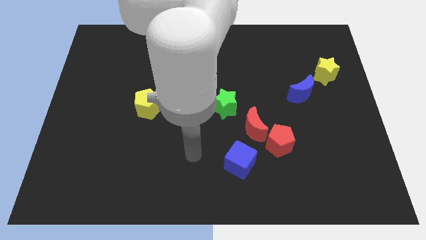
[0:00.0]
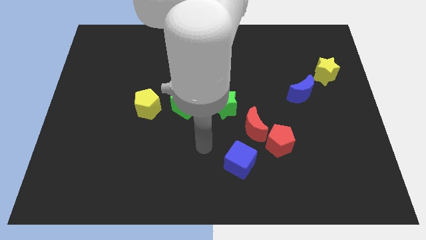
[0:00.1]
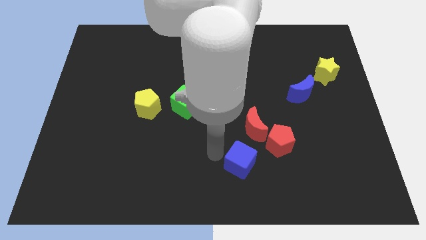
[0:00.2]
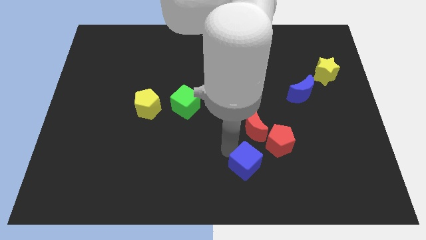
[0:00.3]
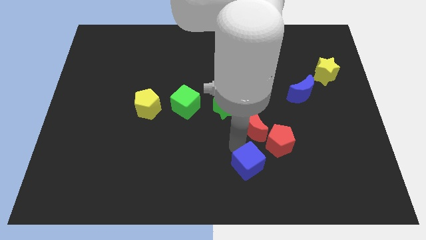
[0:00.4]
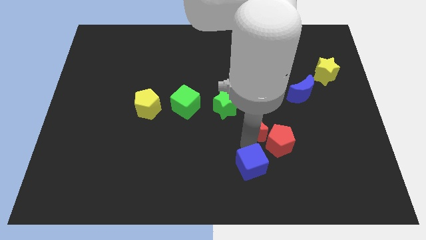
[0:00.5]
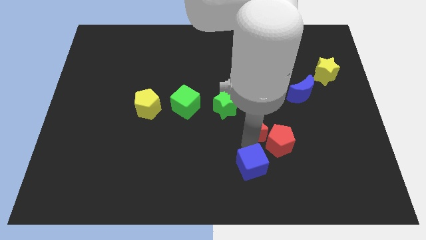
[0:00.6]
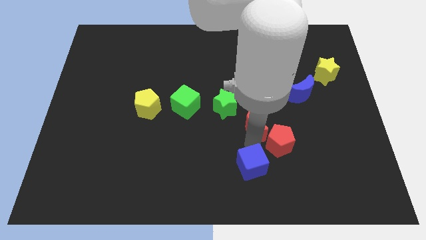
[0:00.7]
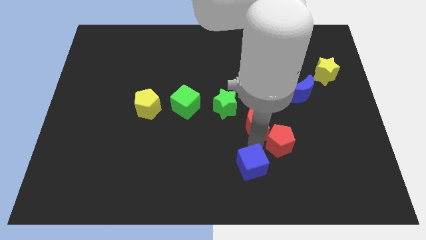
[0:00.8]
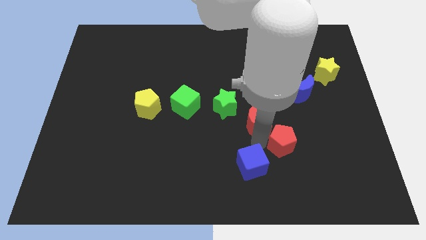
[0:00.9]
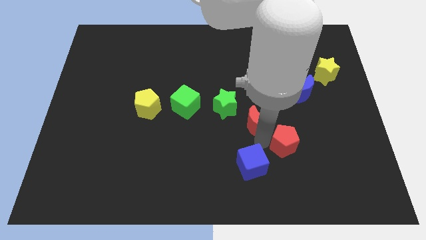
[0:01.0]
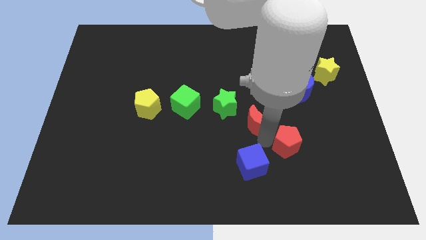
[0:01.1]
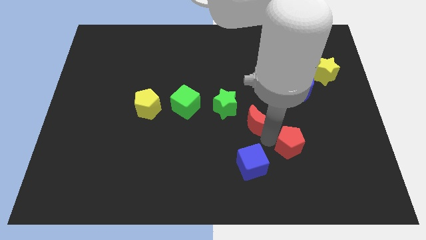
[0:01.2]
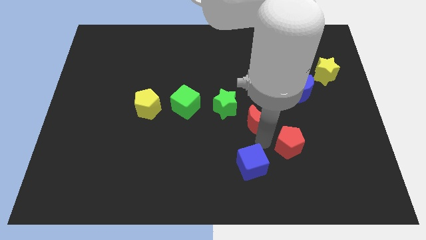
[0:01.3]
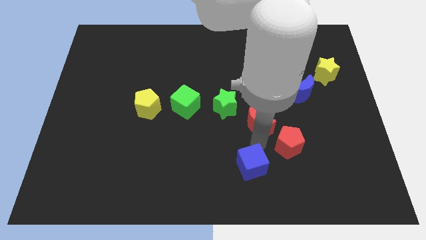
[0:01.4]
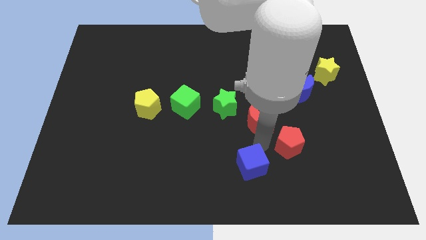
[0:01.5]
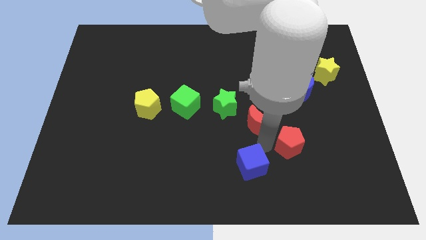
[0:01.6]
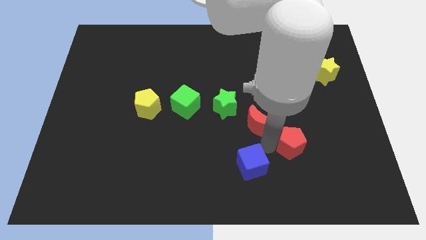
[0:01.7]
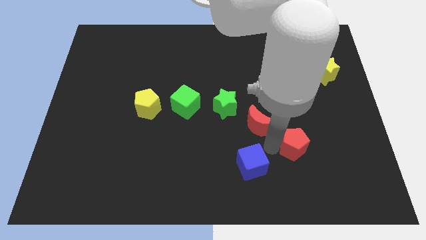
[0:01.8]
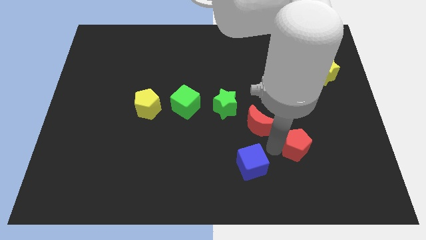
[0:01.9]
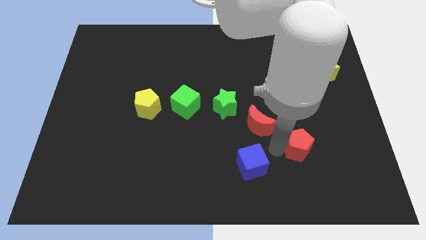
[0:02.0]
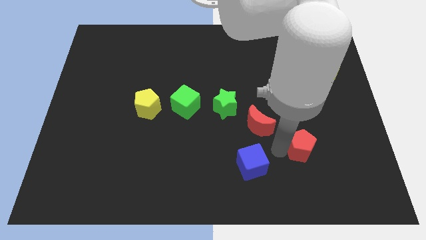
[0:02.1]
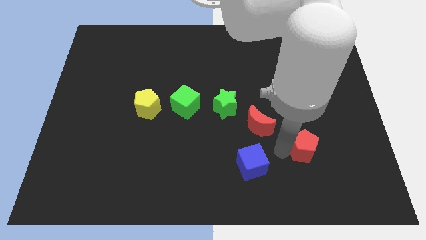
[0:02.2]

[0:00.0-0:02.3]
pull the red pentagon apart from the red moon and blue cube

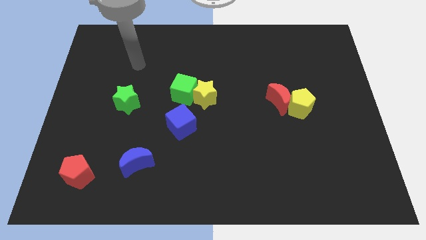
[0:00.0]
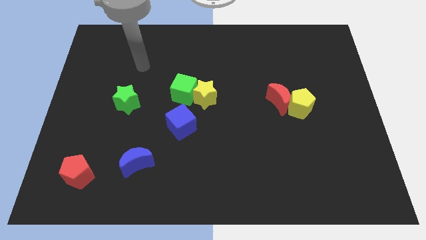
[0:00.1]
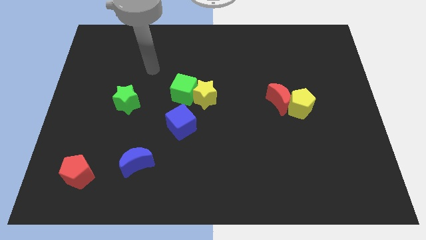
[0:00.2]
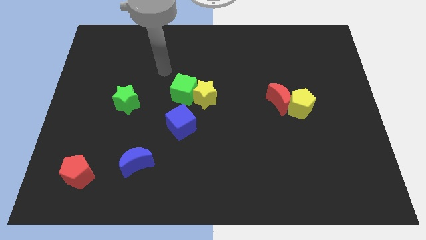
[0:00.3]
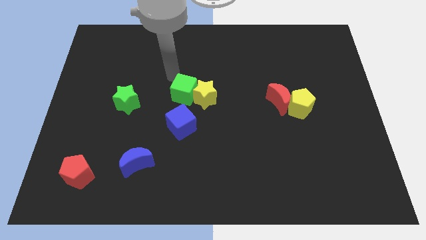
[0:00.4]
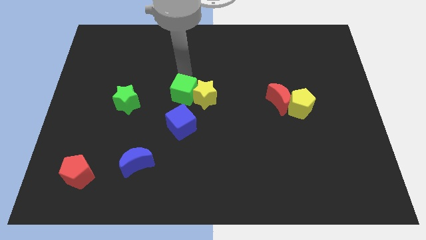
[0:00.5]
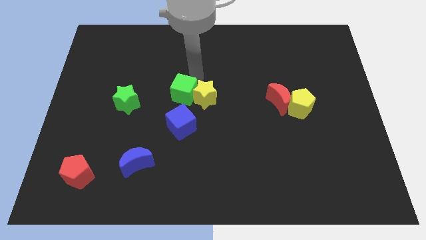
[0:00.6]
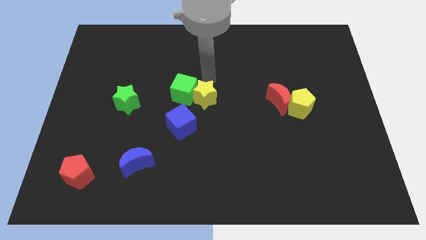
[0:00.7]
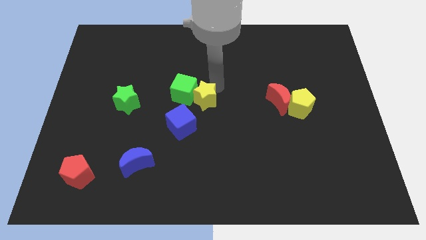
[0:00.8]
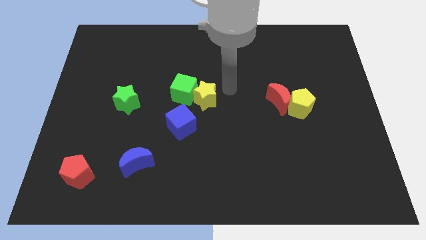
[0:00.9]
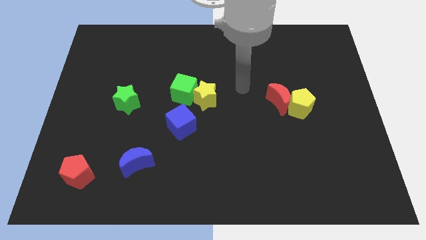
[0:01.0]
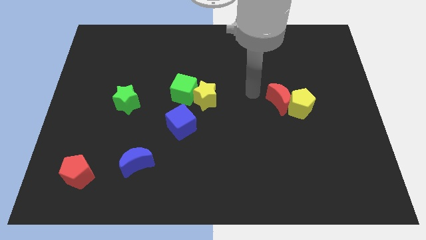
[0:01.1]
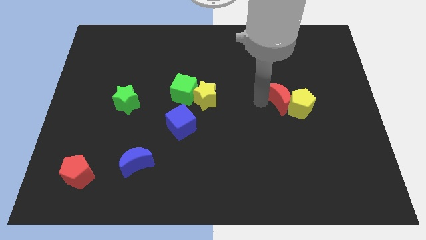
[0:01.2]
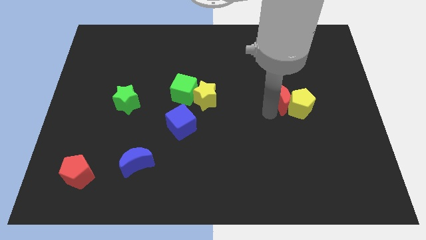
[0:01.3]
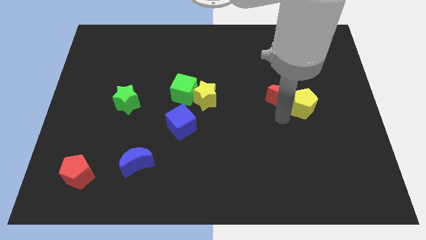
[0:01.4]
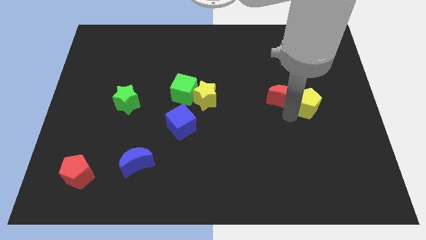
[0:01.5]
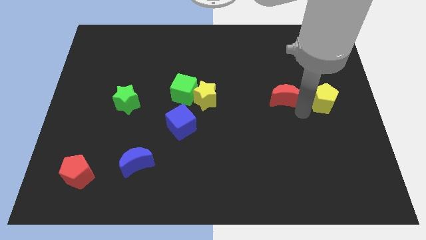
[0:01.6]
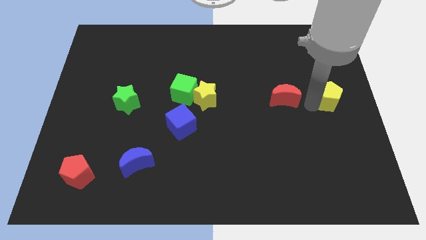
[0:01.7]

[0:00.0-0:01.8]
pull the red moon apart from the yellow pentagon

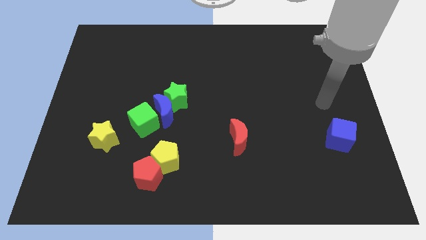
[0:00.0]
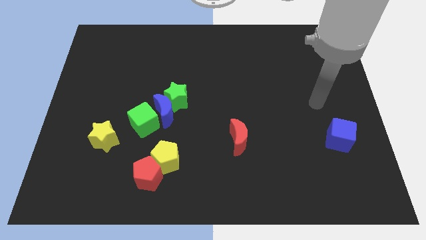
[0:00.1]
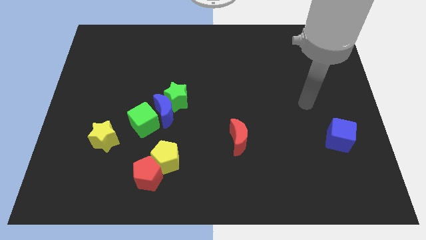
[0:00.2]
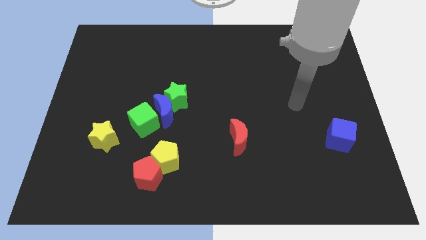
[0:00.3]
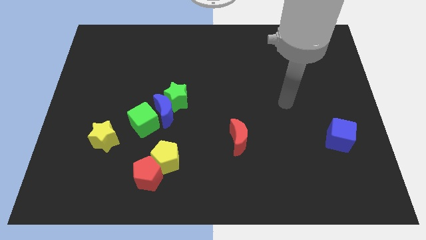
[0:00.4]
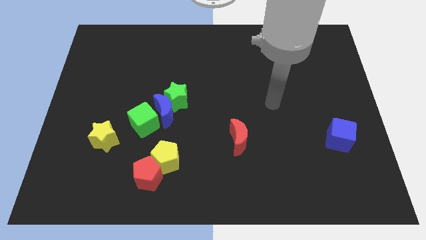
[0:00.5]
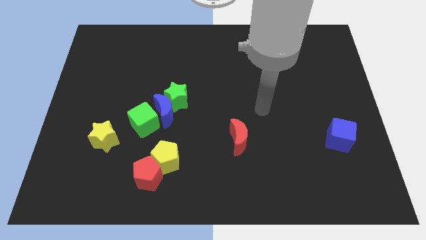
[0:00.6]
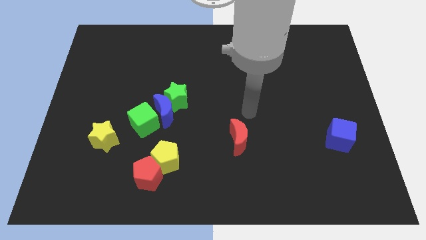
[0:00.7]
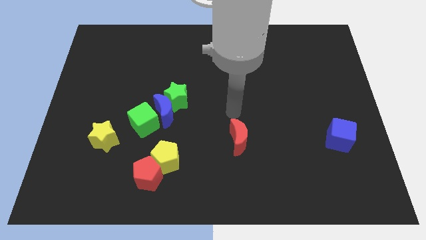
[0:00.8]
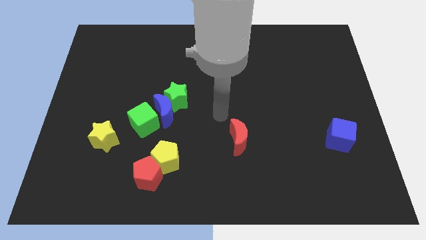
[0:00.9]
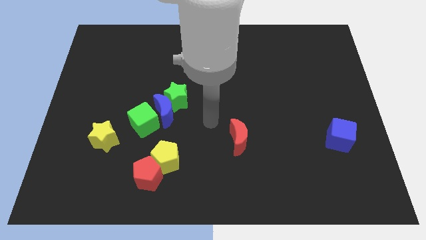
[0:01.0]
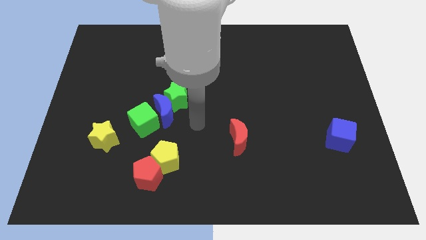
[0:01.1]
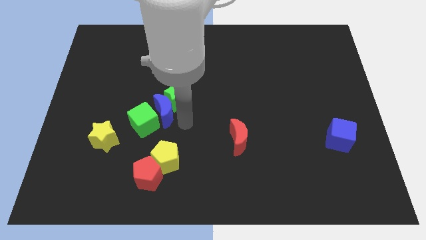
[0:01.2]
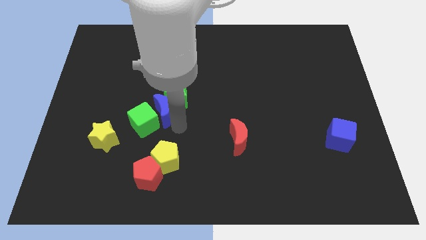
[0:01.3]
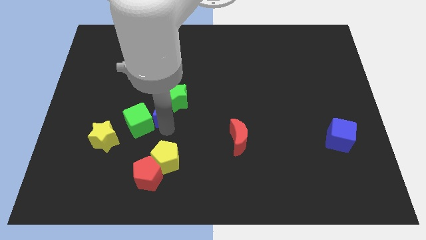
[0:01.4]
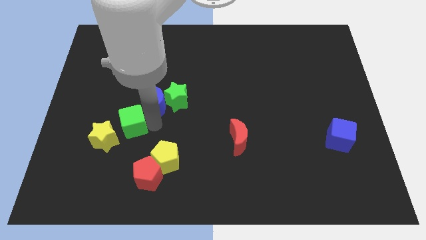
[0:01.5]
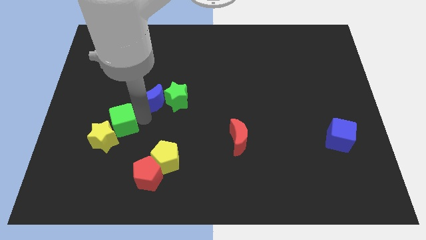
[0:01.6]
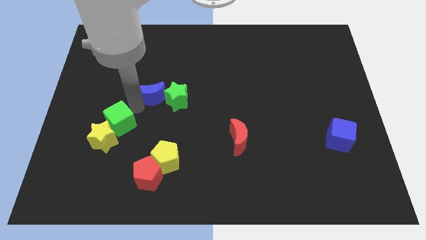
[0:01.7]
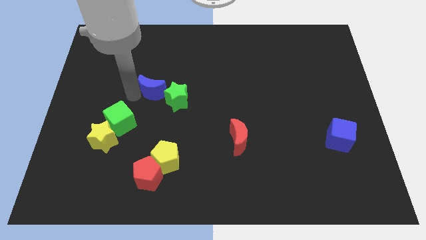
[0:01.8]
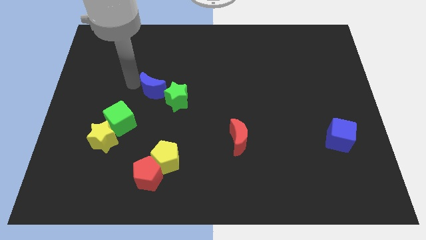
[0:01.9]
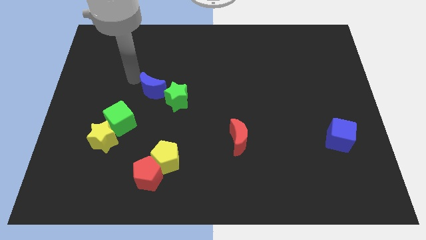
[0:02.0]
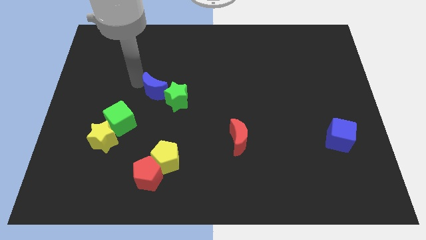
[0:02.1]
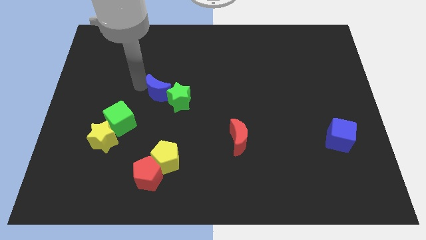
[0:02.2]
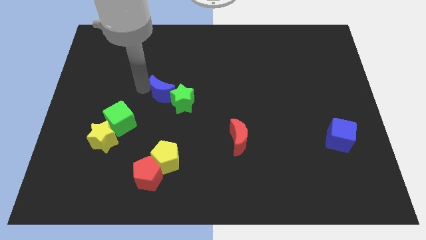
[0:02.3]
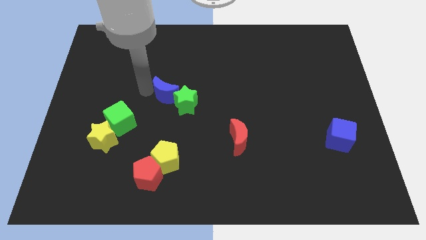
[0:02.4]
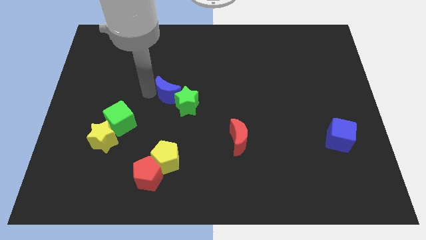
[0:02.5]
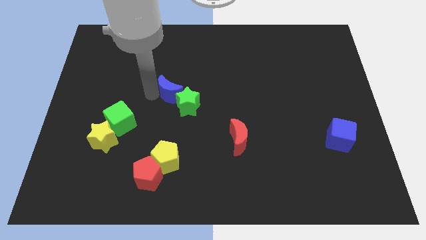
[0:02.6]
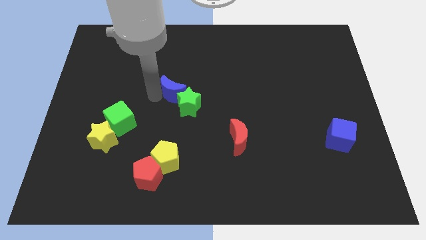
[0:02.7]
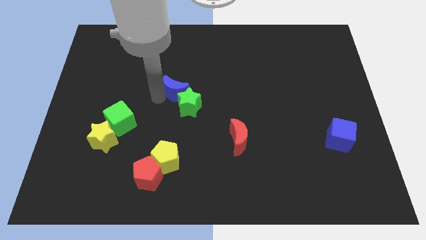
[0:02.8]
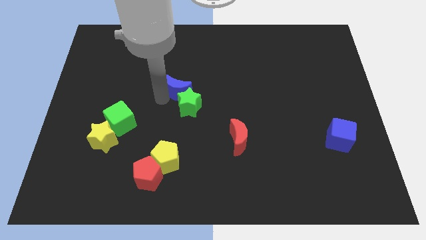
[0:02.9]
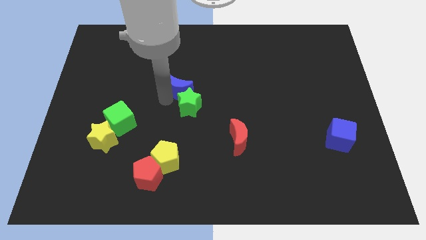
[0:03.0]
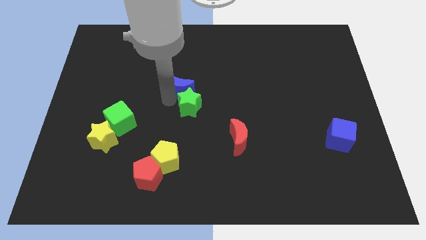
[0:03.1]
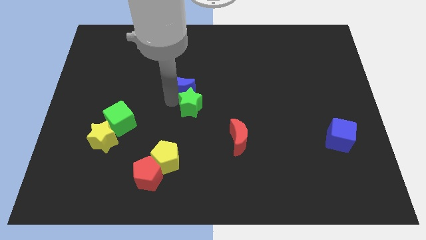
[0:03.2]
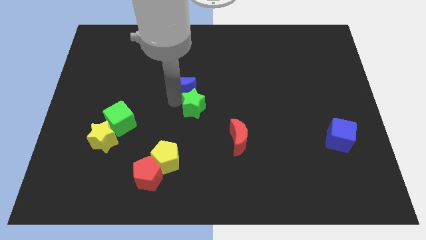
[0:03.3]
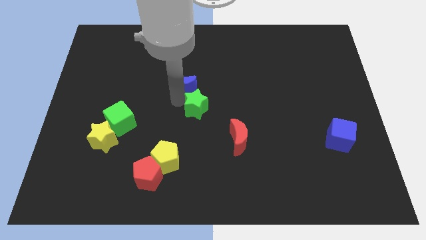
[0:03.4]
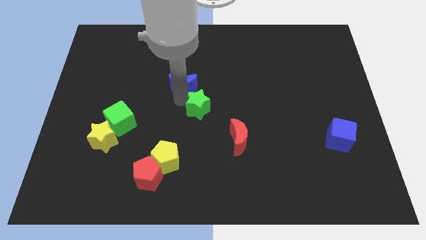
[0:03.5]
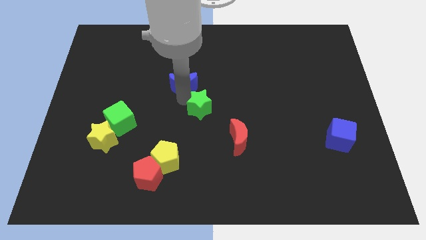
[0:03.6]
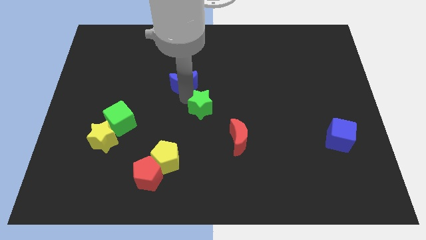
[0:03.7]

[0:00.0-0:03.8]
pull the blue moon apart from the green star and green cube

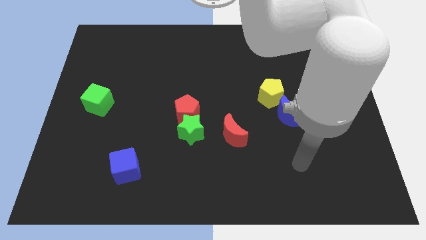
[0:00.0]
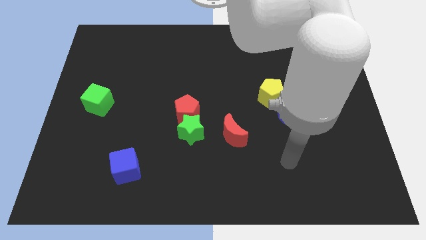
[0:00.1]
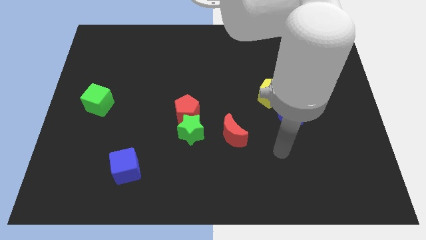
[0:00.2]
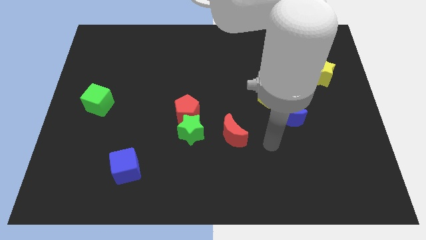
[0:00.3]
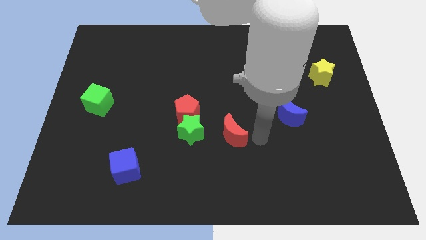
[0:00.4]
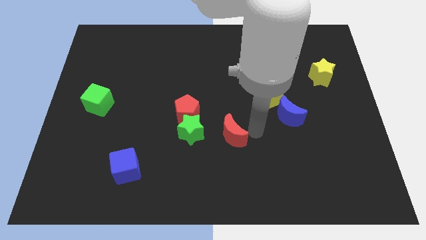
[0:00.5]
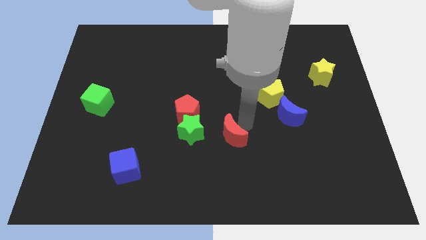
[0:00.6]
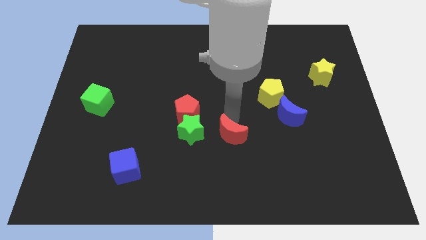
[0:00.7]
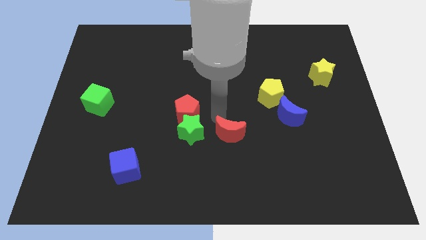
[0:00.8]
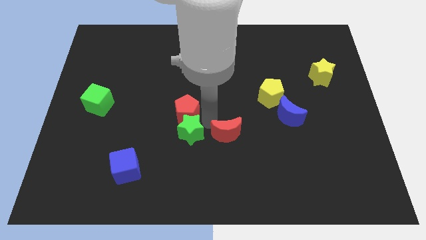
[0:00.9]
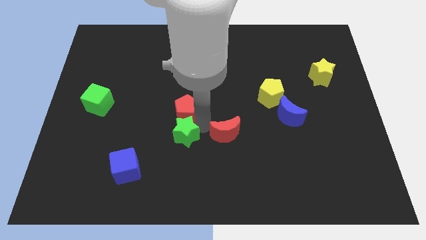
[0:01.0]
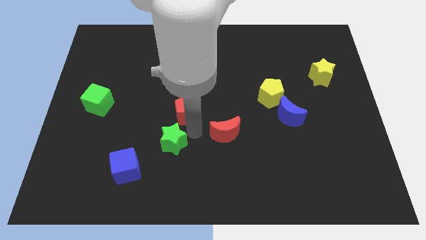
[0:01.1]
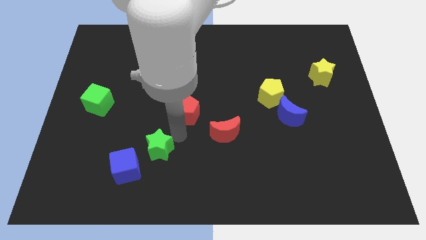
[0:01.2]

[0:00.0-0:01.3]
pull the red pentagon apart from the green star

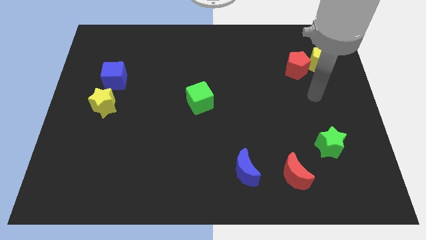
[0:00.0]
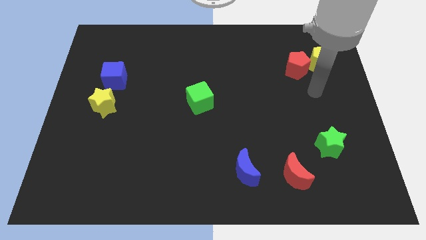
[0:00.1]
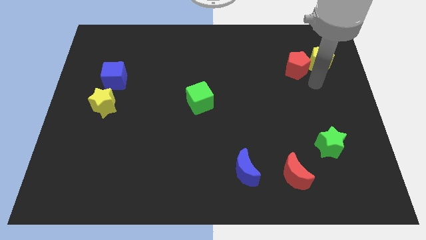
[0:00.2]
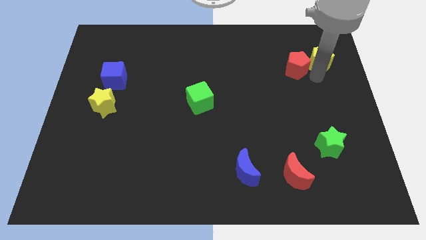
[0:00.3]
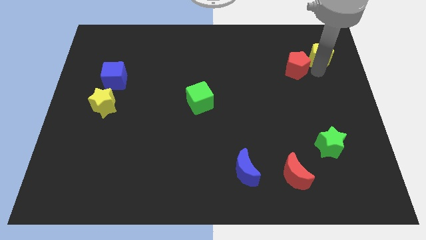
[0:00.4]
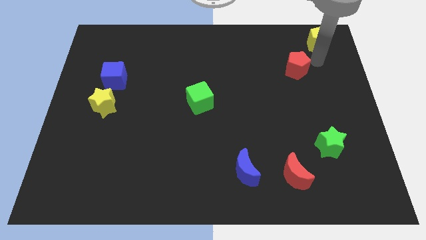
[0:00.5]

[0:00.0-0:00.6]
move the red pentagon away from the yellow pentagon
